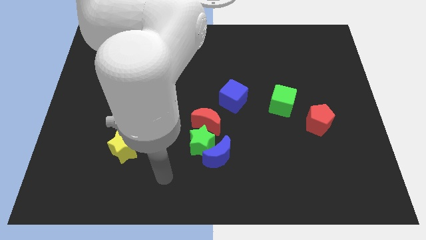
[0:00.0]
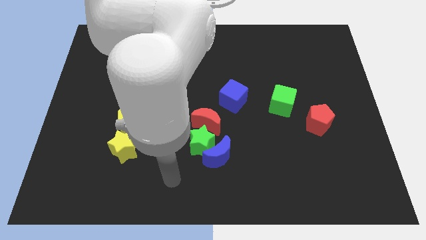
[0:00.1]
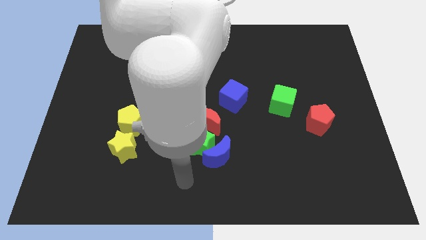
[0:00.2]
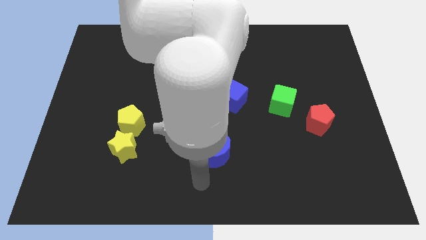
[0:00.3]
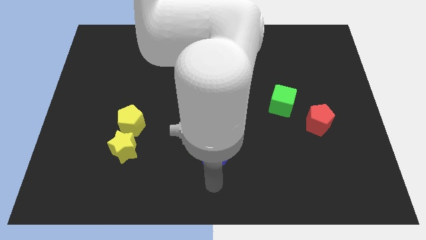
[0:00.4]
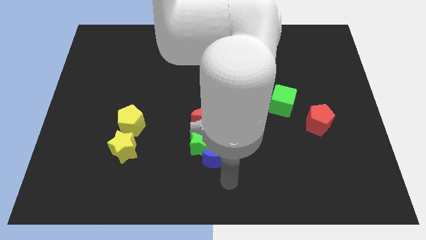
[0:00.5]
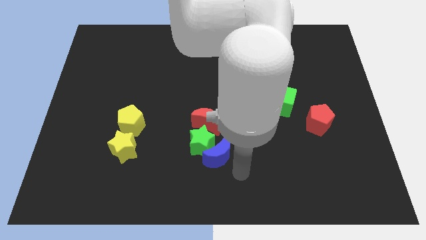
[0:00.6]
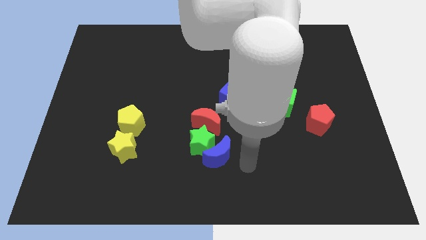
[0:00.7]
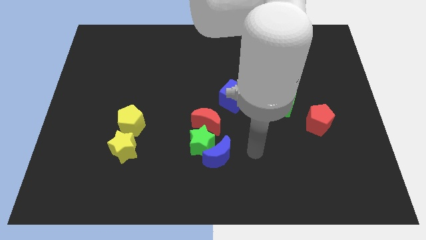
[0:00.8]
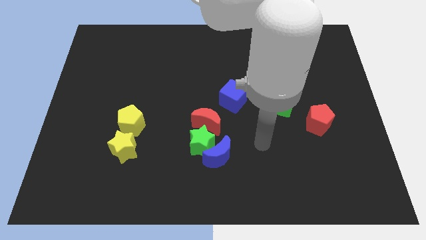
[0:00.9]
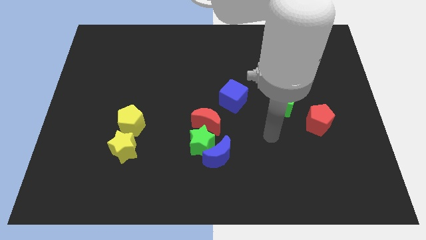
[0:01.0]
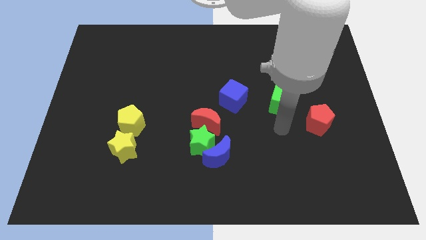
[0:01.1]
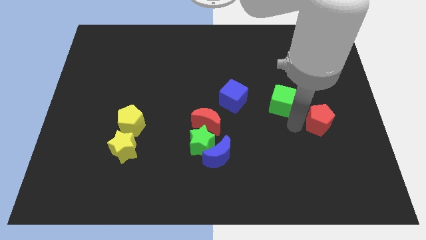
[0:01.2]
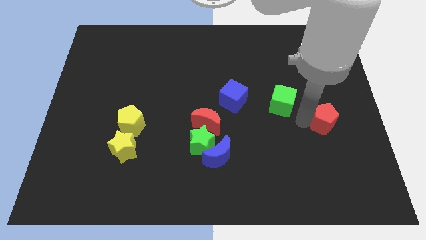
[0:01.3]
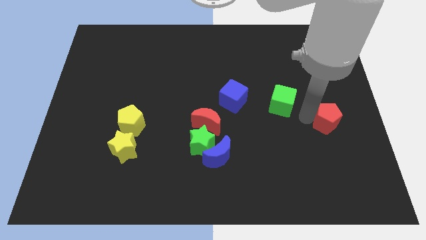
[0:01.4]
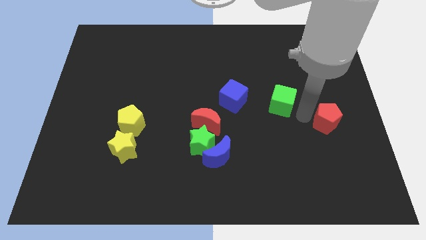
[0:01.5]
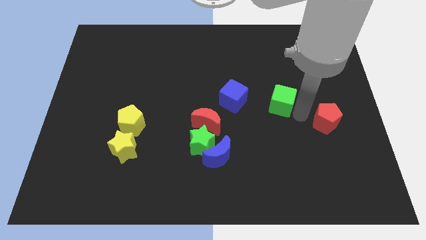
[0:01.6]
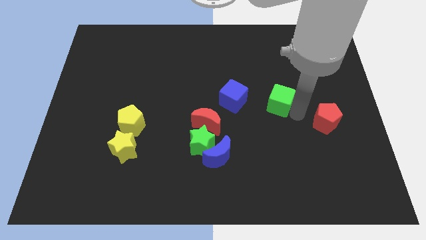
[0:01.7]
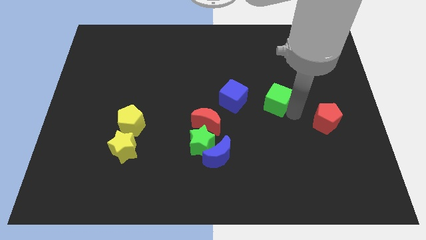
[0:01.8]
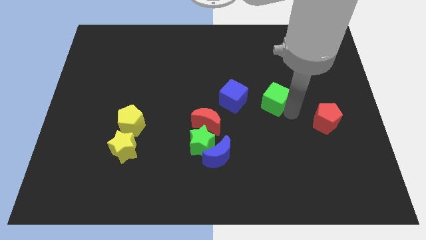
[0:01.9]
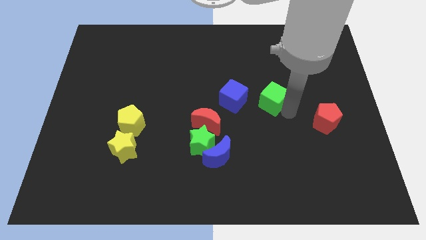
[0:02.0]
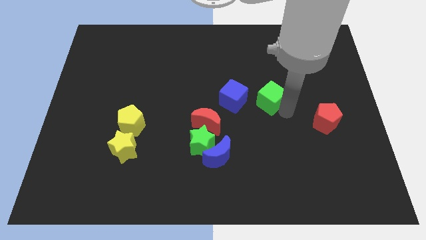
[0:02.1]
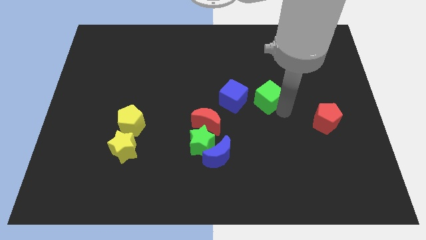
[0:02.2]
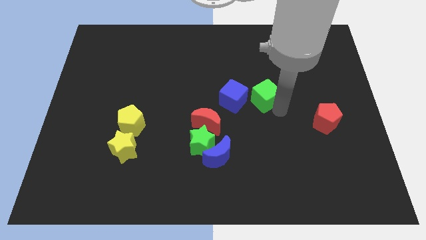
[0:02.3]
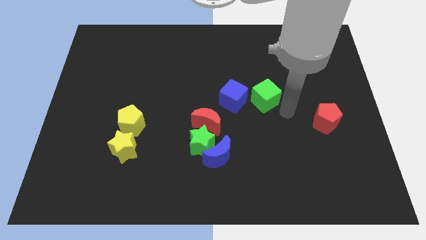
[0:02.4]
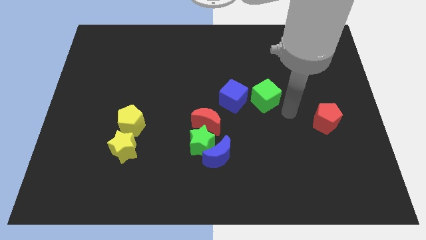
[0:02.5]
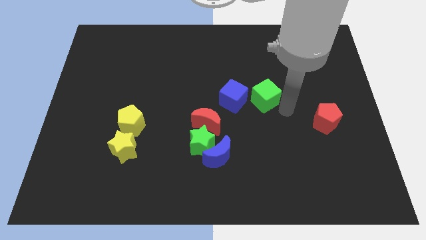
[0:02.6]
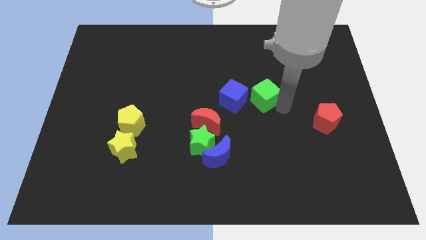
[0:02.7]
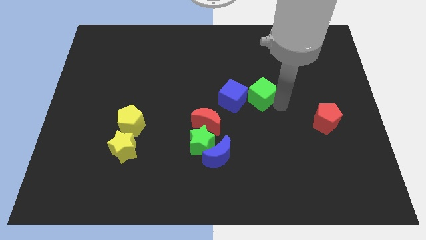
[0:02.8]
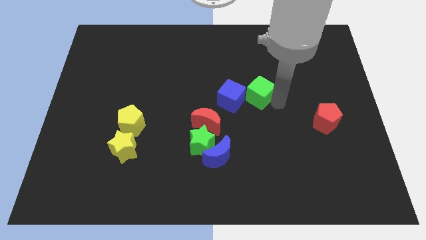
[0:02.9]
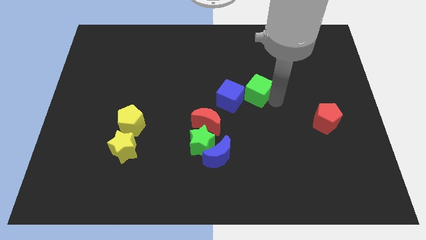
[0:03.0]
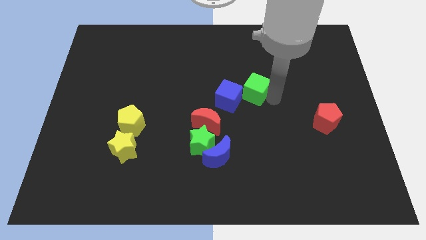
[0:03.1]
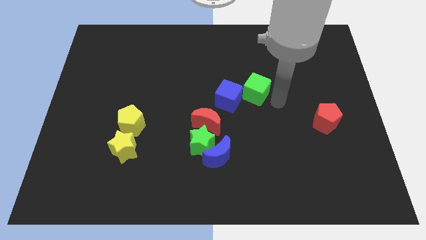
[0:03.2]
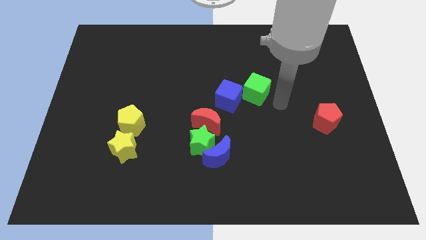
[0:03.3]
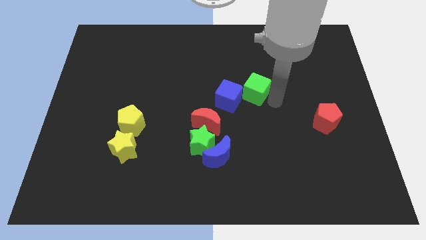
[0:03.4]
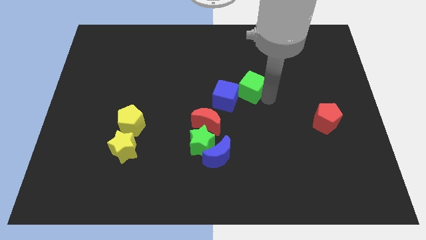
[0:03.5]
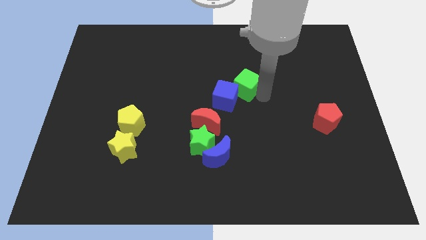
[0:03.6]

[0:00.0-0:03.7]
slightly move the green cube left

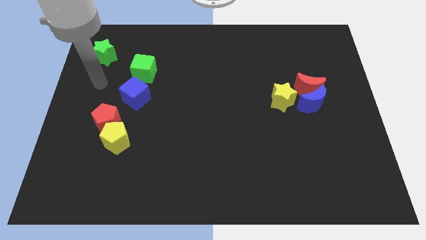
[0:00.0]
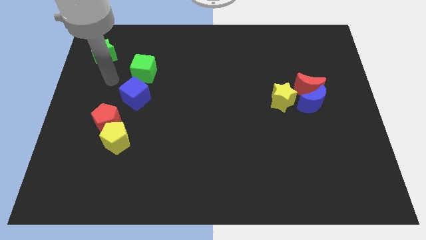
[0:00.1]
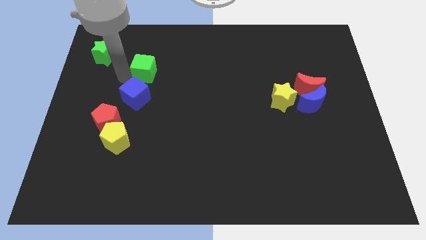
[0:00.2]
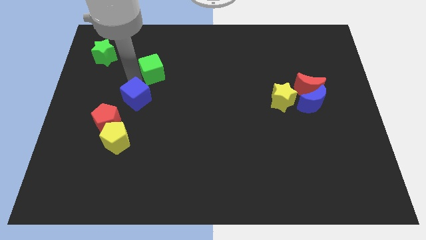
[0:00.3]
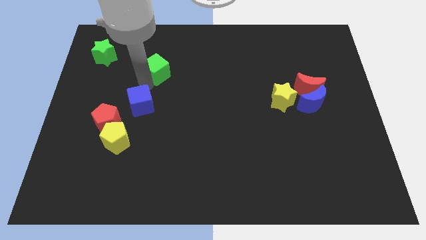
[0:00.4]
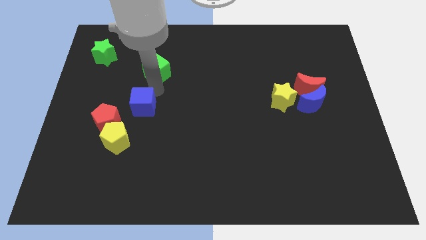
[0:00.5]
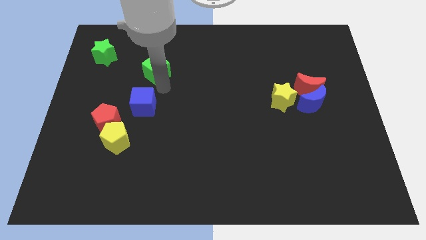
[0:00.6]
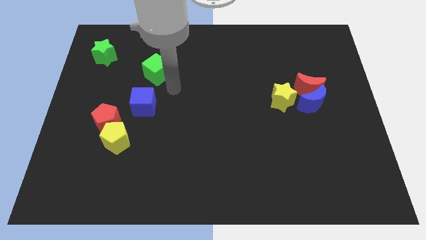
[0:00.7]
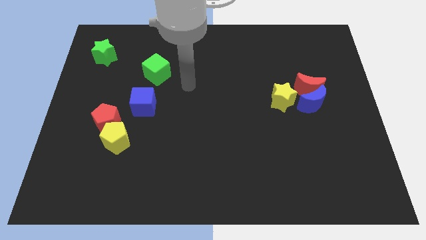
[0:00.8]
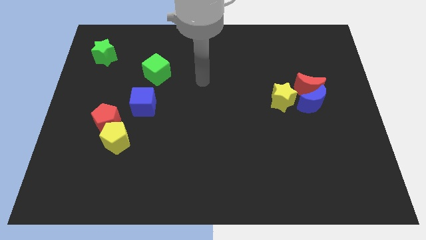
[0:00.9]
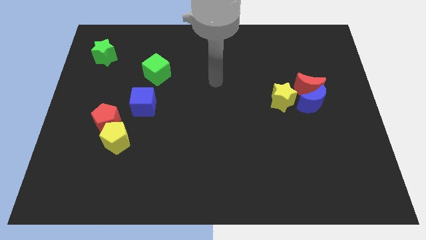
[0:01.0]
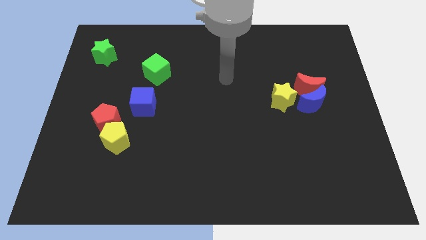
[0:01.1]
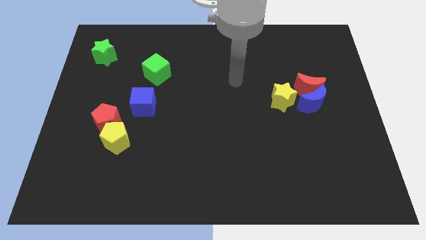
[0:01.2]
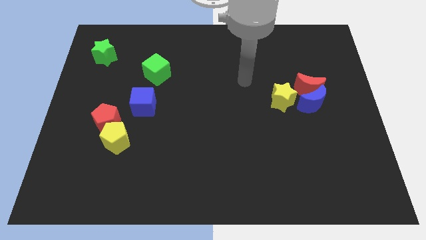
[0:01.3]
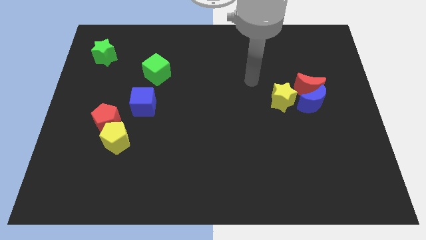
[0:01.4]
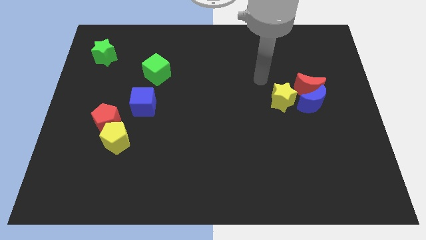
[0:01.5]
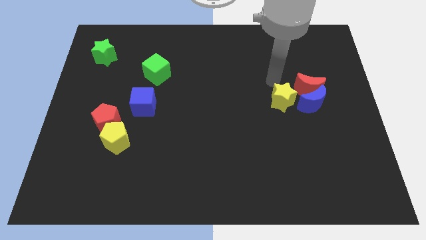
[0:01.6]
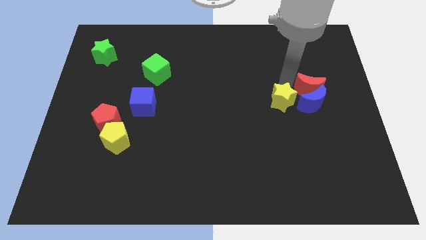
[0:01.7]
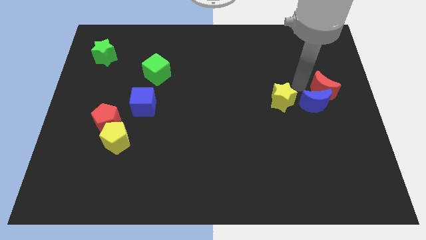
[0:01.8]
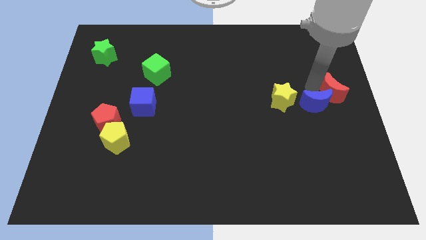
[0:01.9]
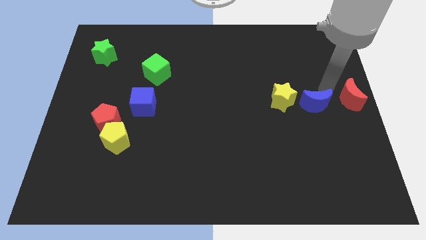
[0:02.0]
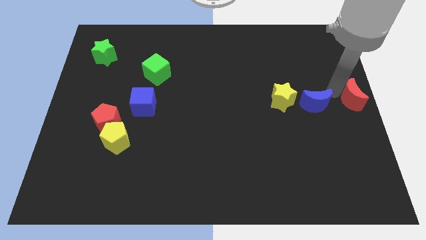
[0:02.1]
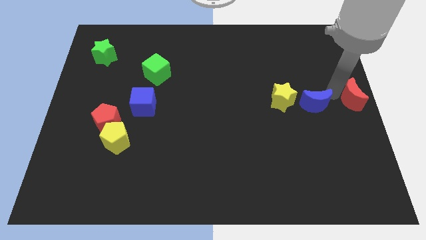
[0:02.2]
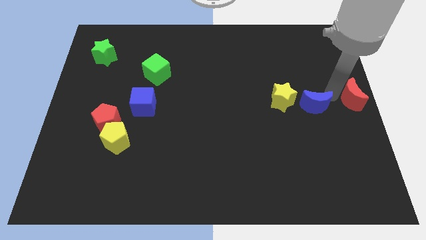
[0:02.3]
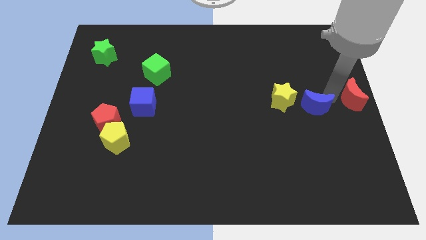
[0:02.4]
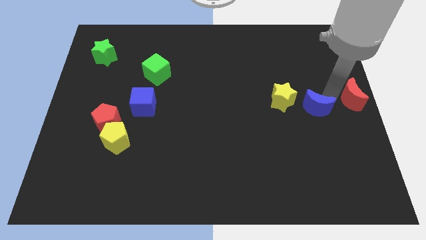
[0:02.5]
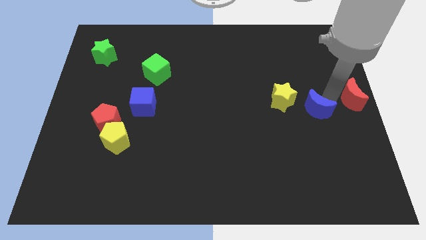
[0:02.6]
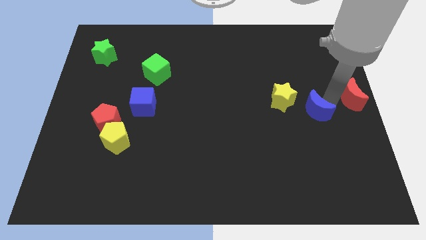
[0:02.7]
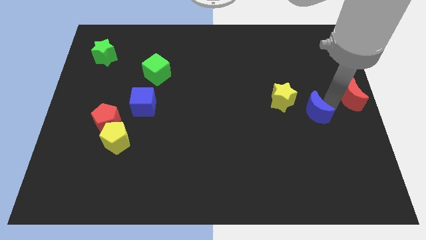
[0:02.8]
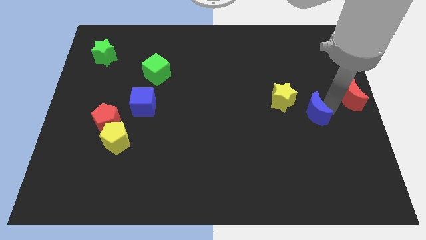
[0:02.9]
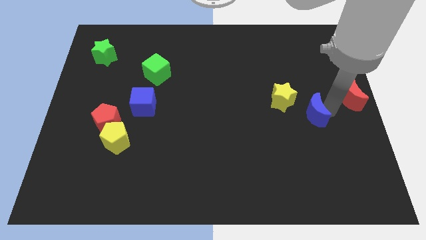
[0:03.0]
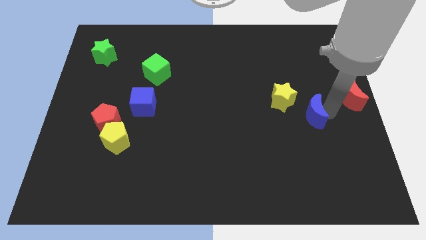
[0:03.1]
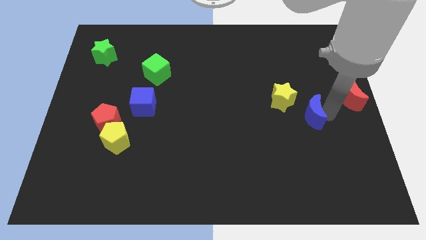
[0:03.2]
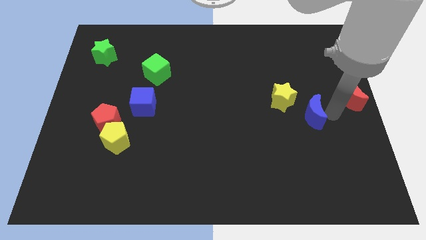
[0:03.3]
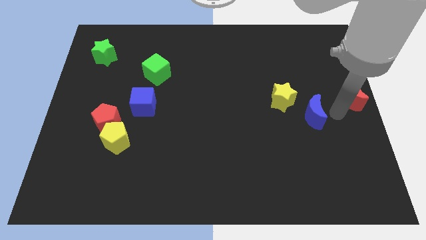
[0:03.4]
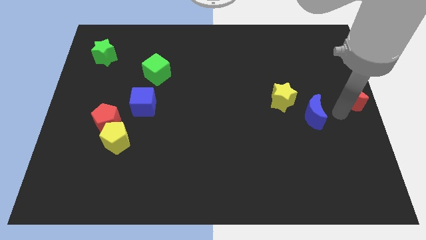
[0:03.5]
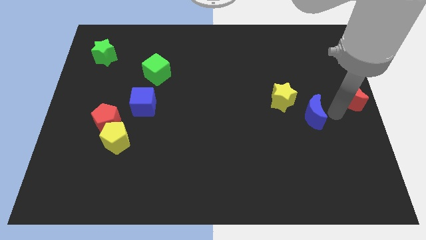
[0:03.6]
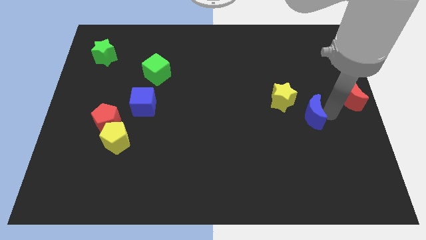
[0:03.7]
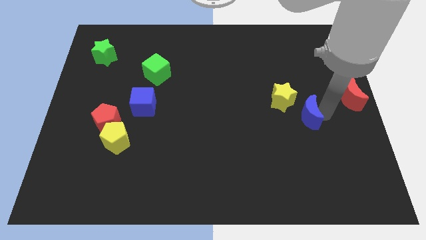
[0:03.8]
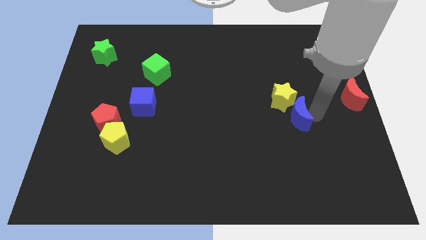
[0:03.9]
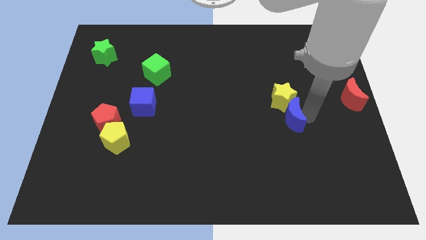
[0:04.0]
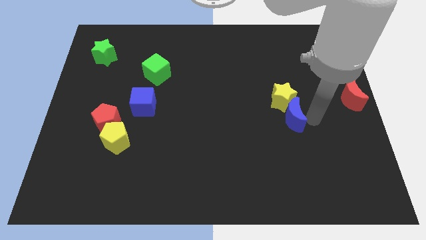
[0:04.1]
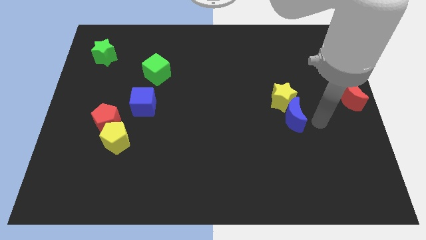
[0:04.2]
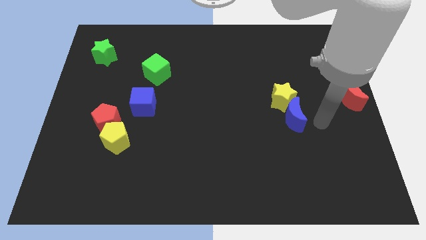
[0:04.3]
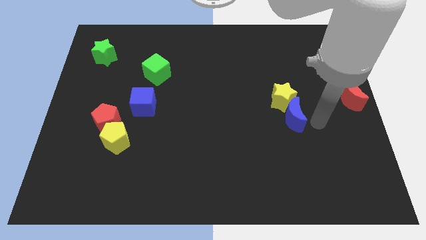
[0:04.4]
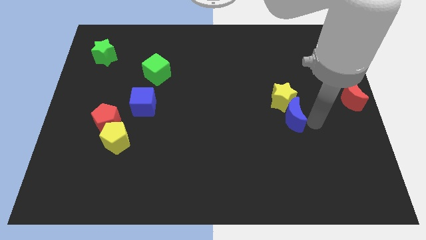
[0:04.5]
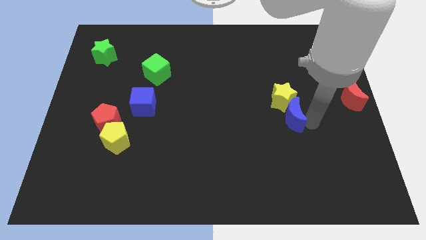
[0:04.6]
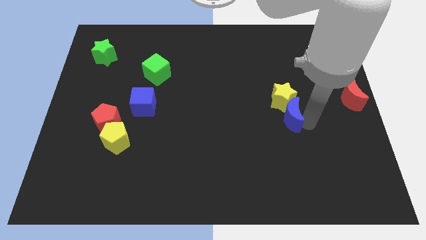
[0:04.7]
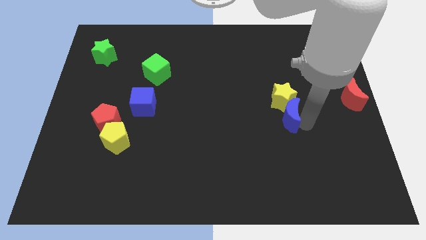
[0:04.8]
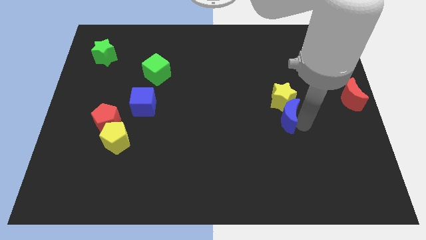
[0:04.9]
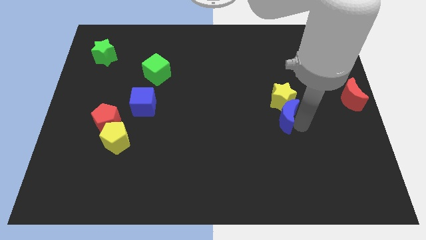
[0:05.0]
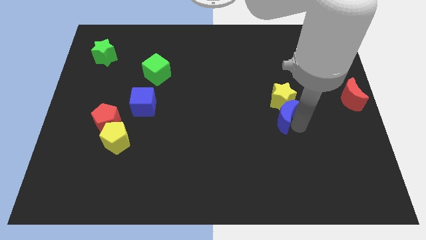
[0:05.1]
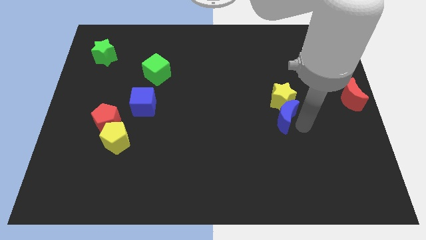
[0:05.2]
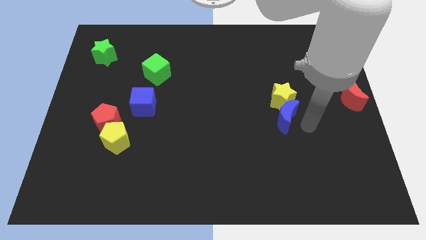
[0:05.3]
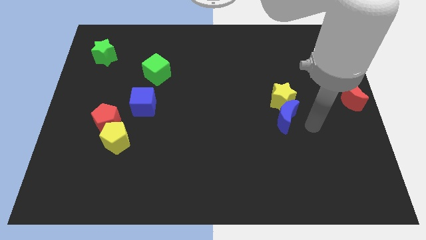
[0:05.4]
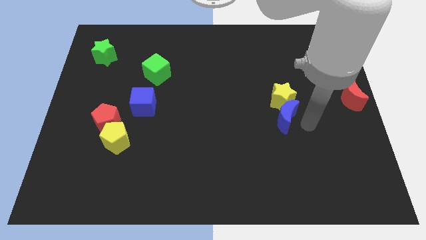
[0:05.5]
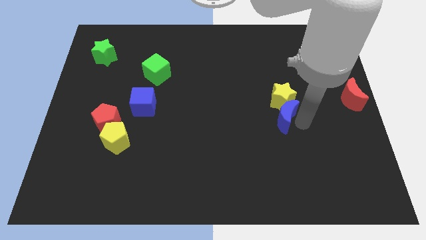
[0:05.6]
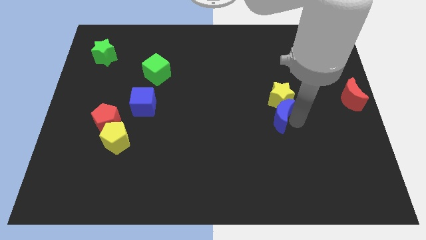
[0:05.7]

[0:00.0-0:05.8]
slide the blue moon to the left a little bit
